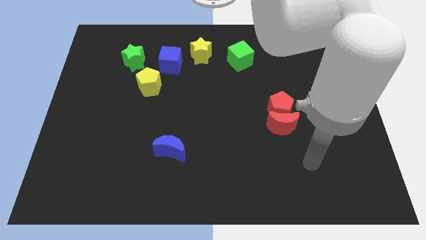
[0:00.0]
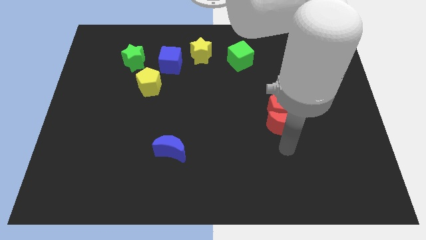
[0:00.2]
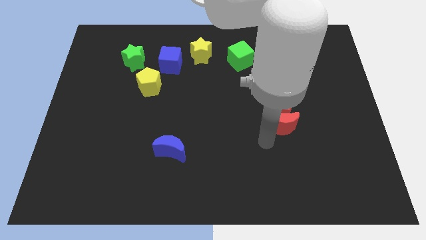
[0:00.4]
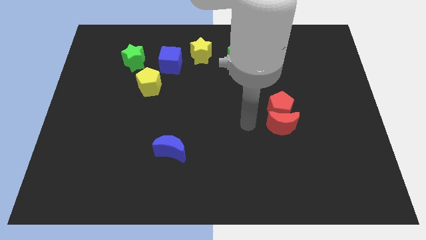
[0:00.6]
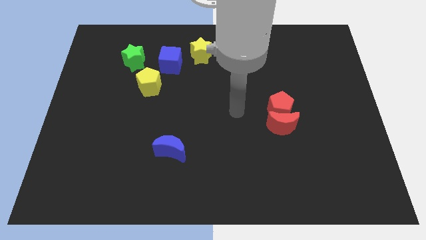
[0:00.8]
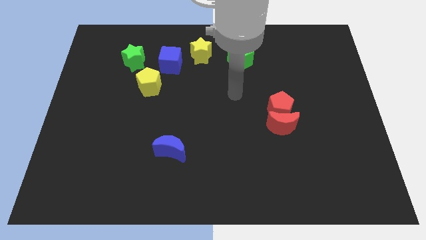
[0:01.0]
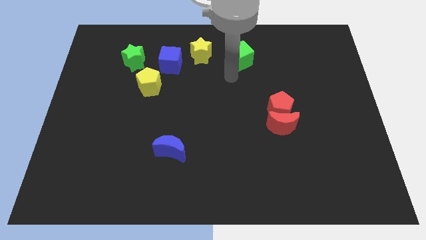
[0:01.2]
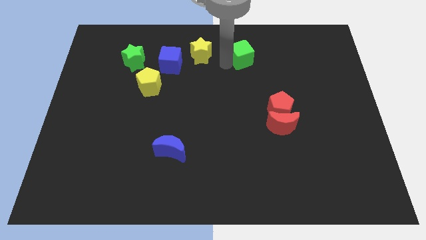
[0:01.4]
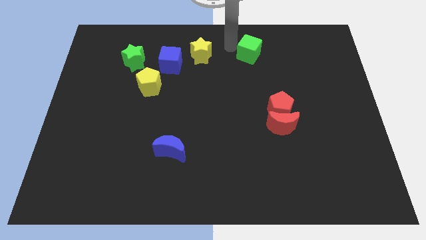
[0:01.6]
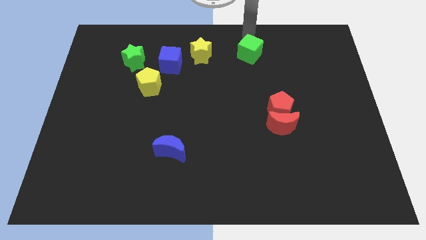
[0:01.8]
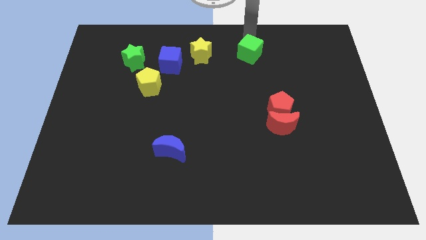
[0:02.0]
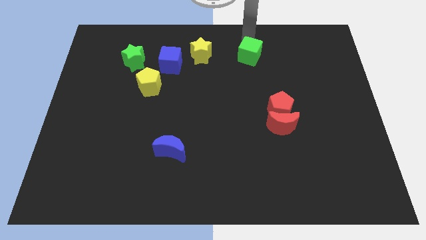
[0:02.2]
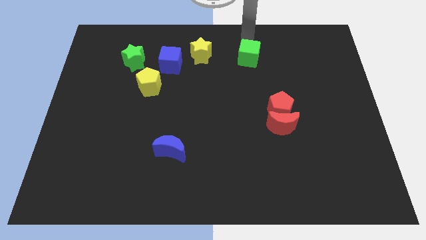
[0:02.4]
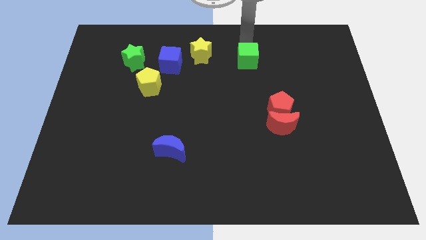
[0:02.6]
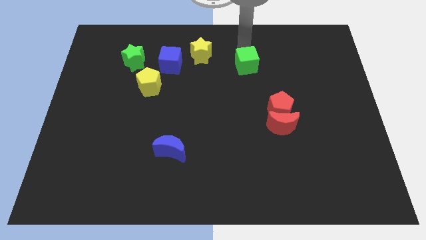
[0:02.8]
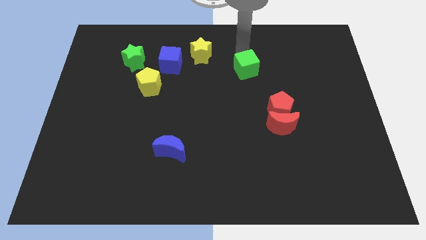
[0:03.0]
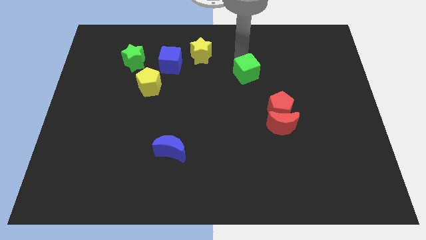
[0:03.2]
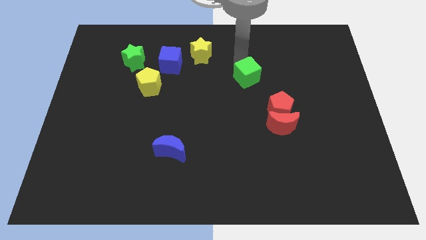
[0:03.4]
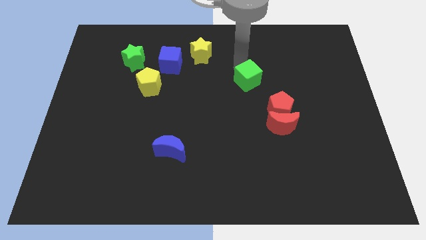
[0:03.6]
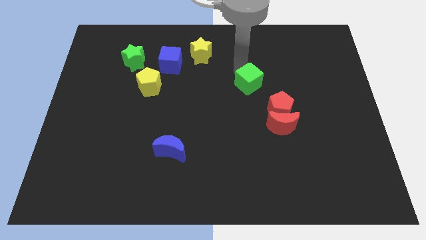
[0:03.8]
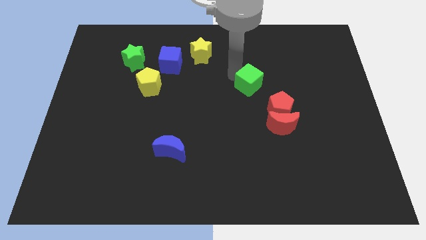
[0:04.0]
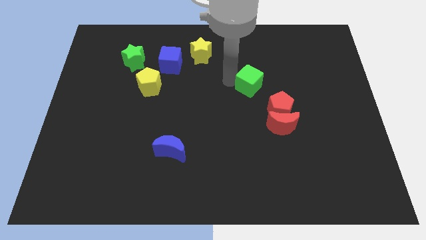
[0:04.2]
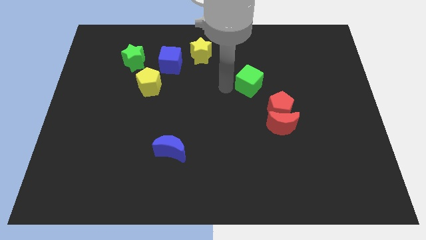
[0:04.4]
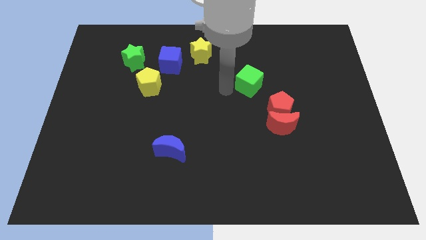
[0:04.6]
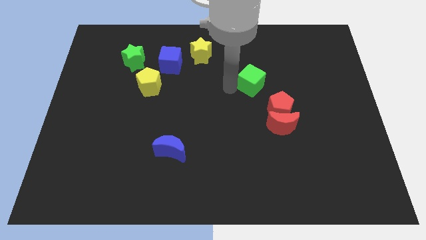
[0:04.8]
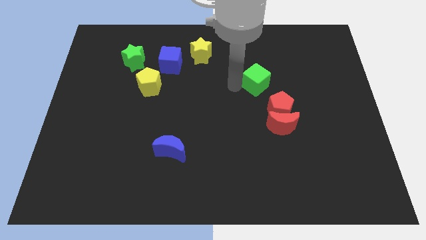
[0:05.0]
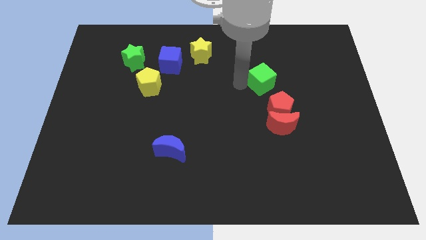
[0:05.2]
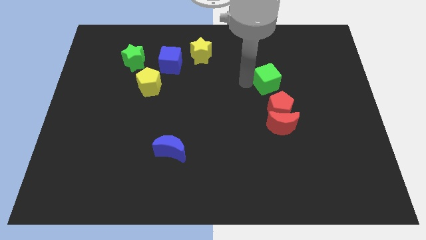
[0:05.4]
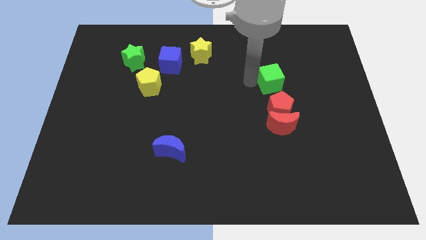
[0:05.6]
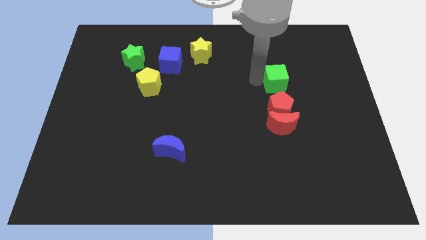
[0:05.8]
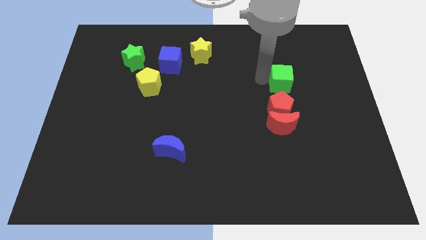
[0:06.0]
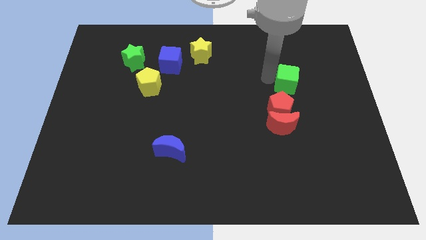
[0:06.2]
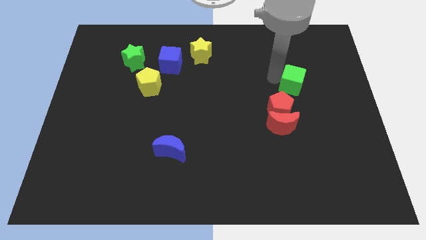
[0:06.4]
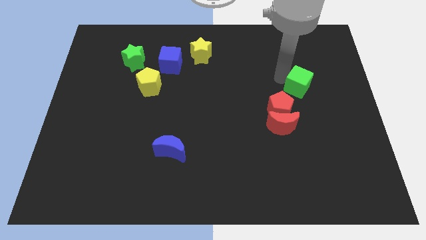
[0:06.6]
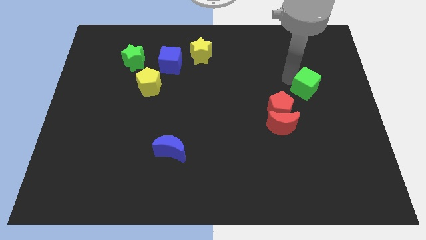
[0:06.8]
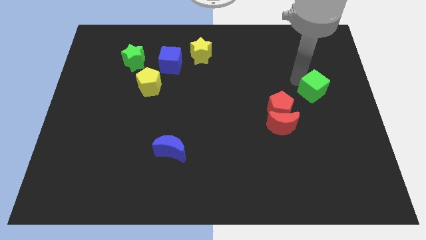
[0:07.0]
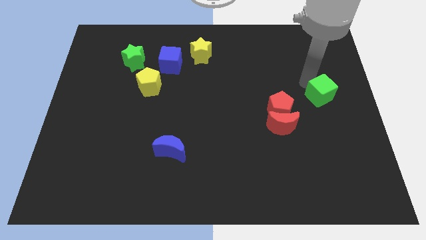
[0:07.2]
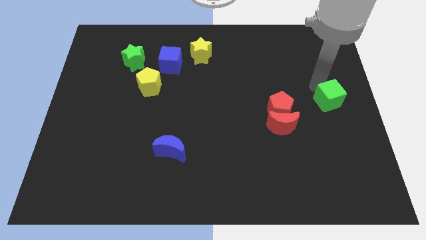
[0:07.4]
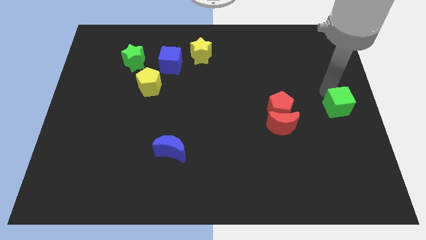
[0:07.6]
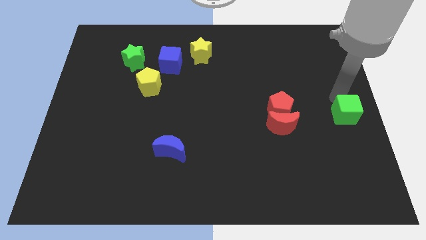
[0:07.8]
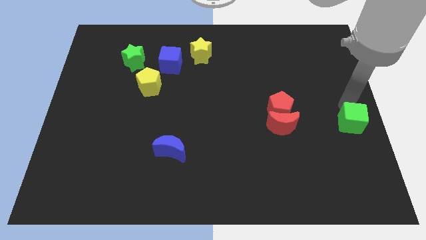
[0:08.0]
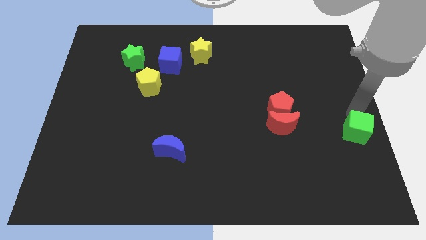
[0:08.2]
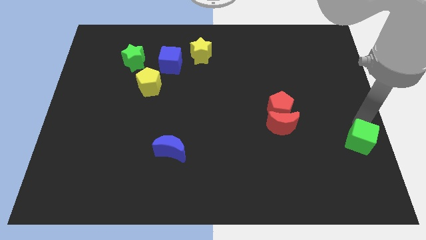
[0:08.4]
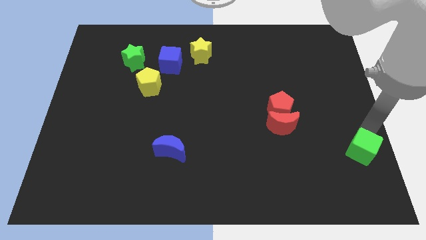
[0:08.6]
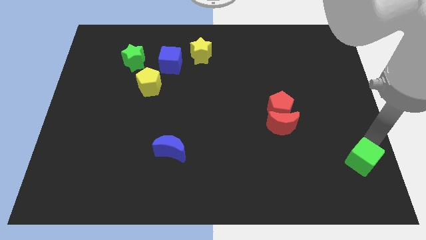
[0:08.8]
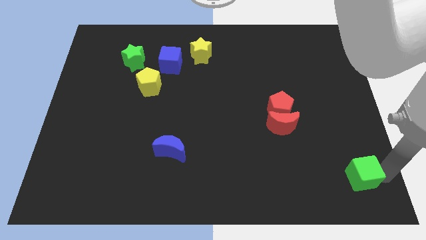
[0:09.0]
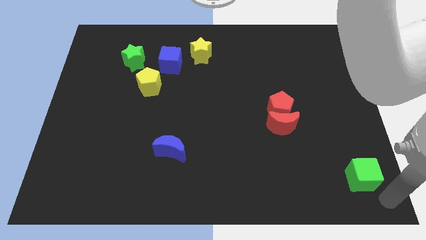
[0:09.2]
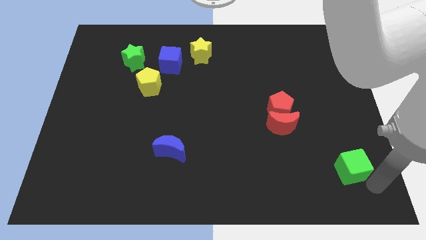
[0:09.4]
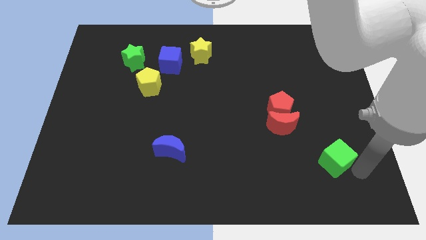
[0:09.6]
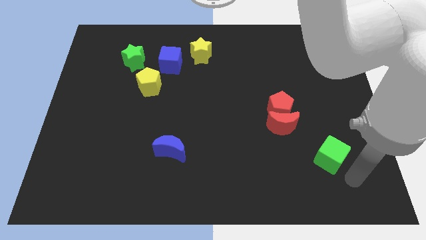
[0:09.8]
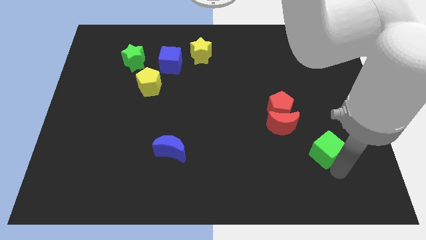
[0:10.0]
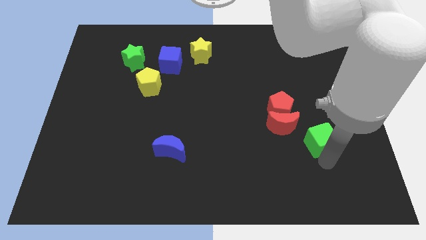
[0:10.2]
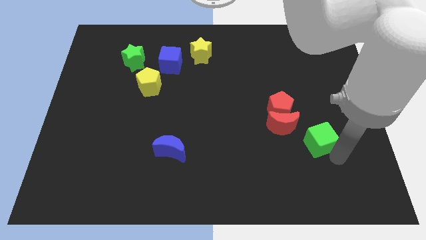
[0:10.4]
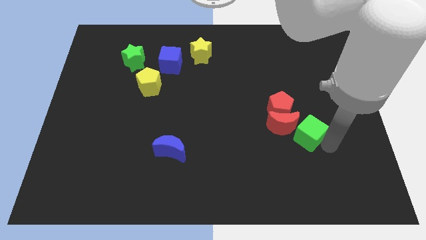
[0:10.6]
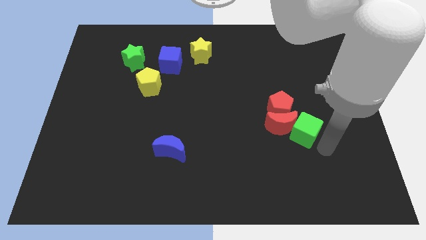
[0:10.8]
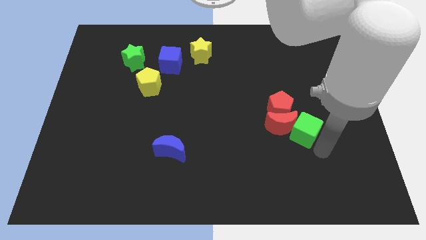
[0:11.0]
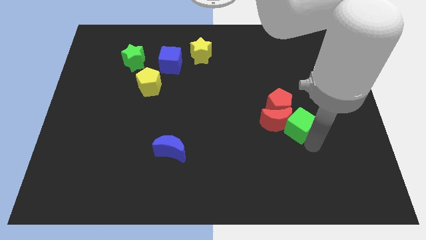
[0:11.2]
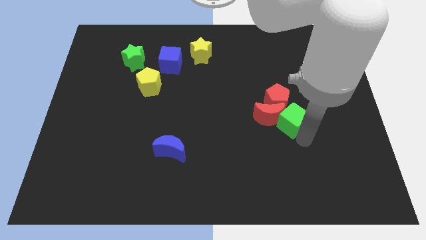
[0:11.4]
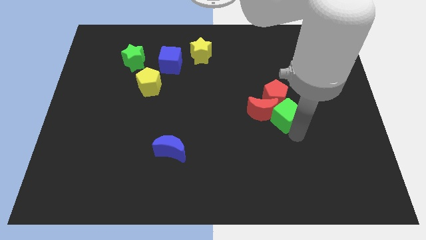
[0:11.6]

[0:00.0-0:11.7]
move the green cube to the red pentagon

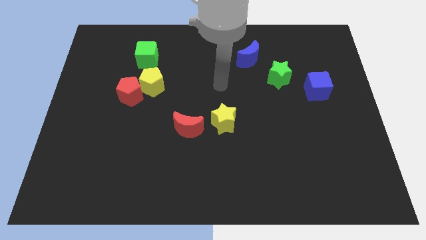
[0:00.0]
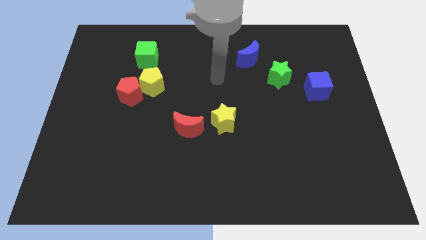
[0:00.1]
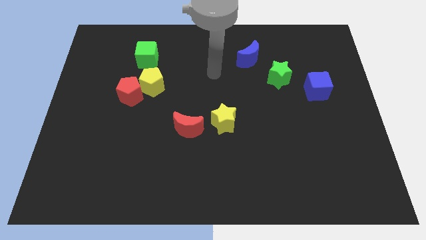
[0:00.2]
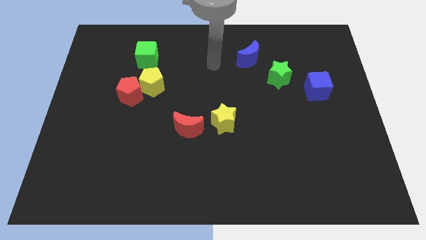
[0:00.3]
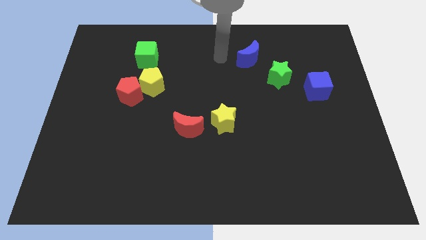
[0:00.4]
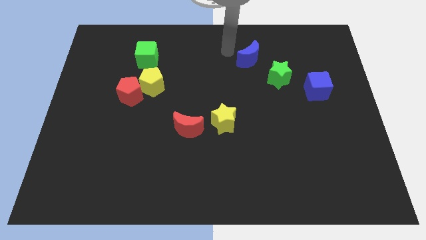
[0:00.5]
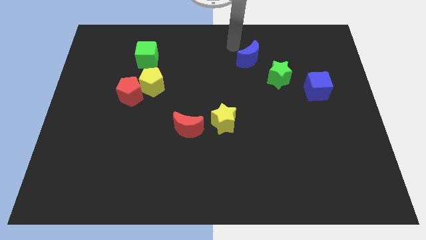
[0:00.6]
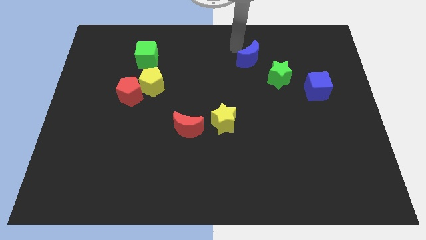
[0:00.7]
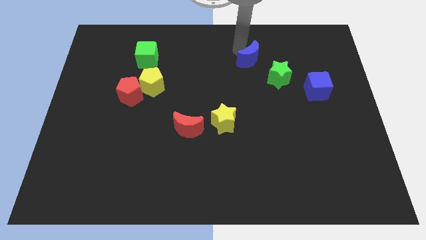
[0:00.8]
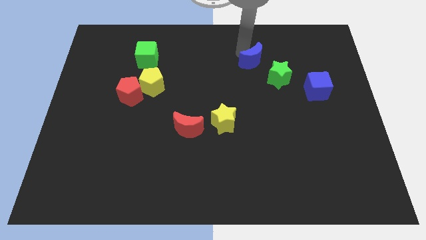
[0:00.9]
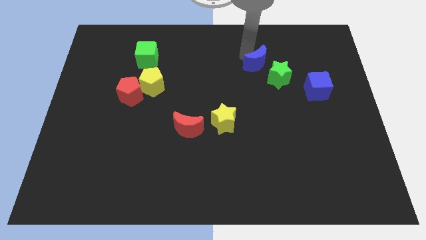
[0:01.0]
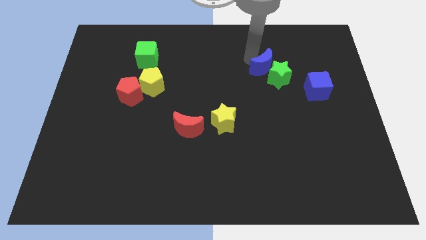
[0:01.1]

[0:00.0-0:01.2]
move the blue moon to the green star
